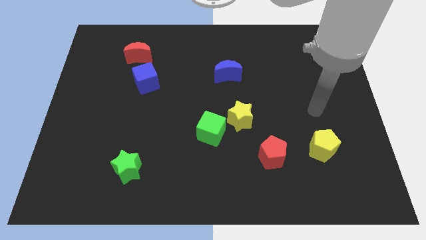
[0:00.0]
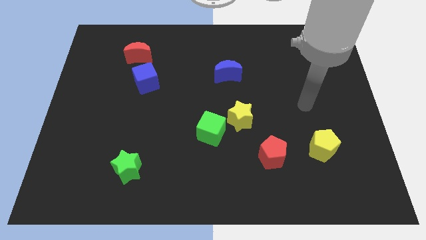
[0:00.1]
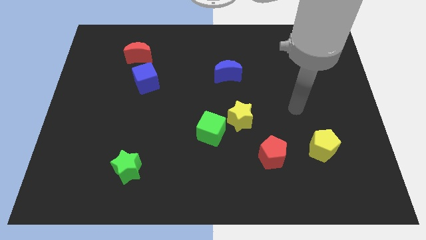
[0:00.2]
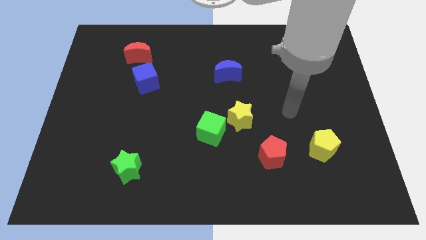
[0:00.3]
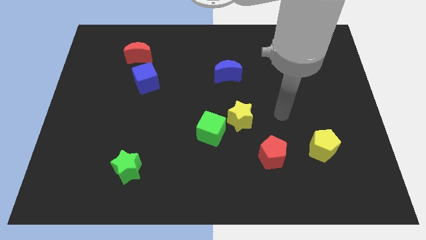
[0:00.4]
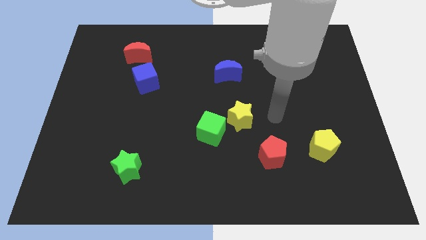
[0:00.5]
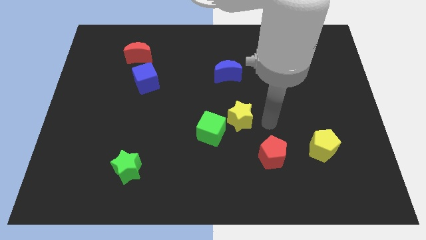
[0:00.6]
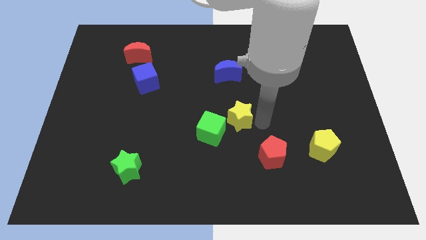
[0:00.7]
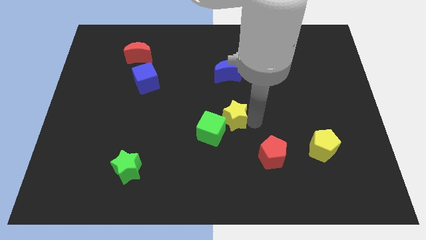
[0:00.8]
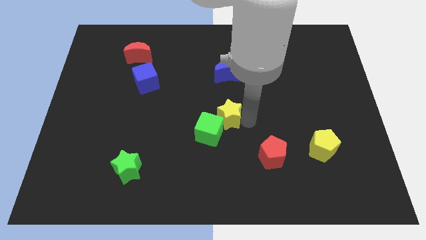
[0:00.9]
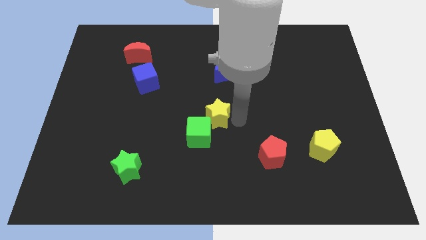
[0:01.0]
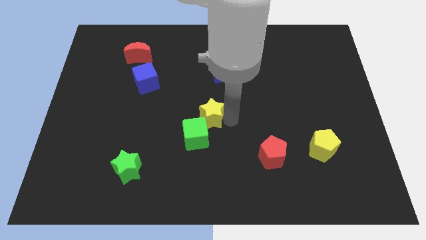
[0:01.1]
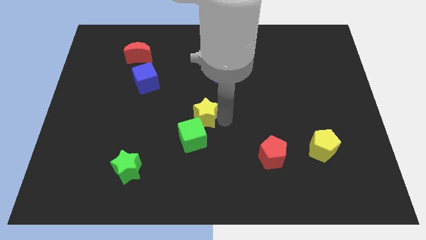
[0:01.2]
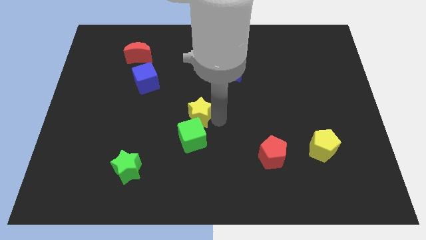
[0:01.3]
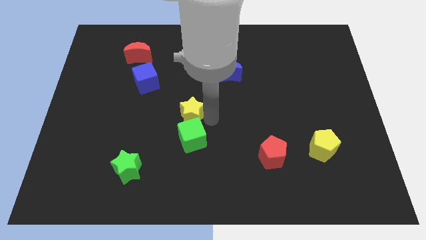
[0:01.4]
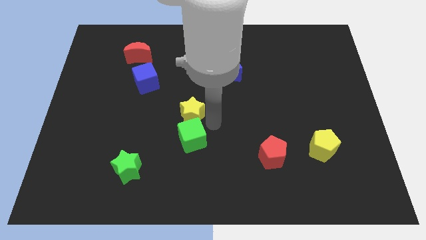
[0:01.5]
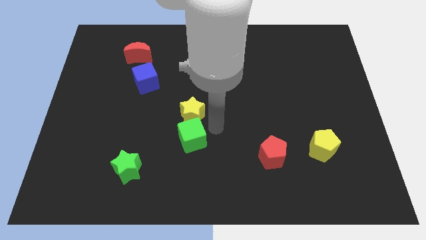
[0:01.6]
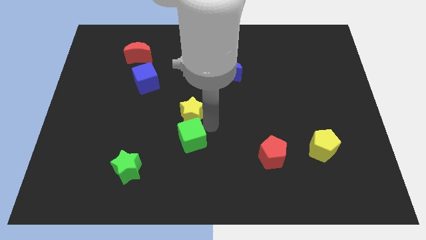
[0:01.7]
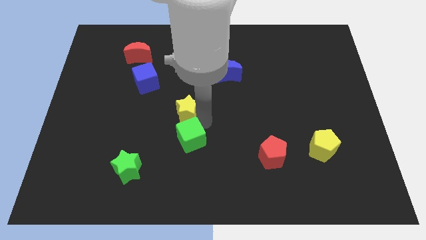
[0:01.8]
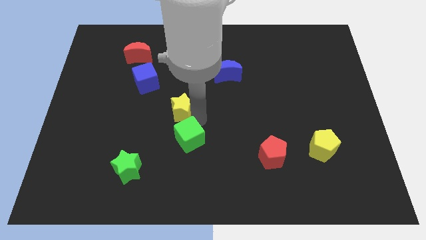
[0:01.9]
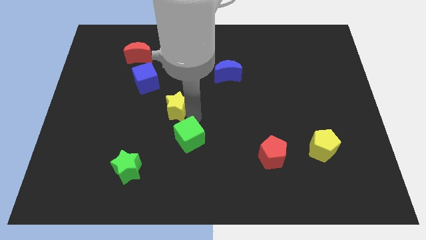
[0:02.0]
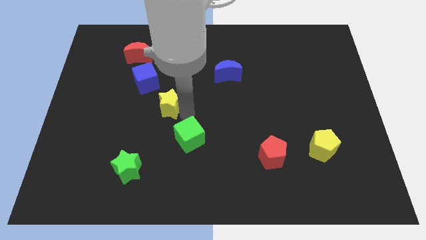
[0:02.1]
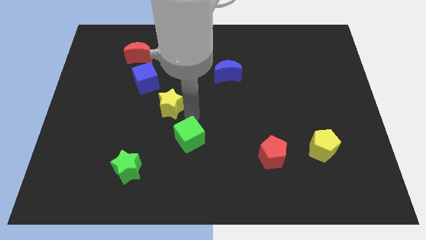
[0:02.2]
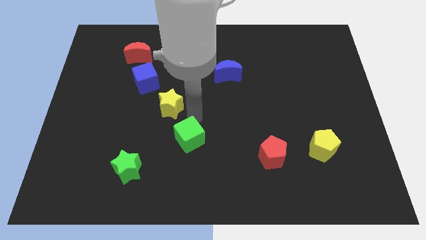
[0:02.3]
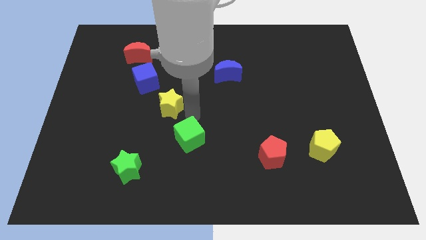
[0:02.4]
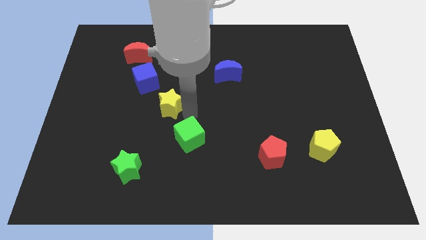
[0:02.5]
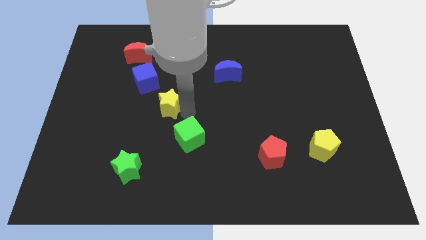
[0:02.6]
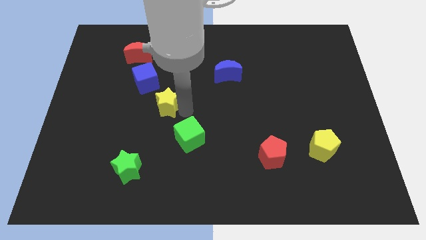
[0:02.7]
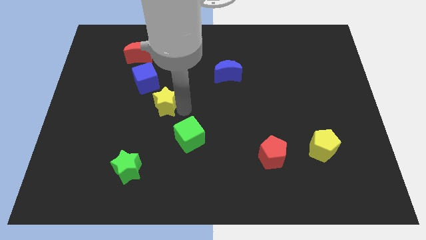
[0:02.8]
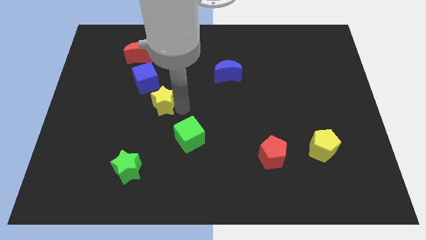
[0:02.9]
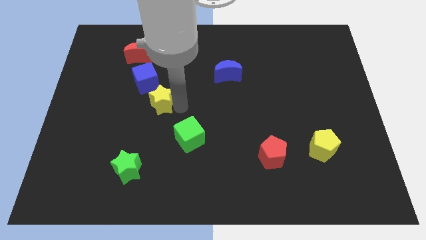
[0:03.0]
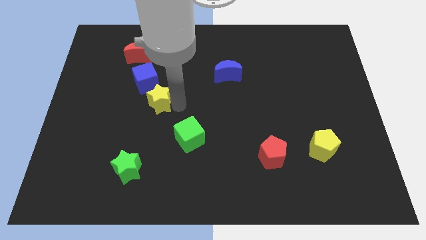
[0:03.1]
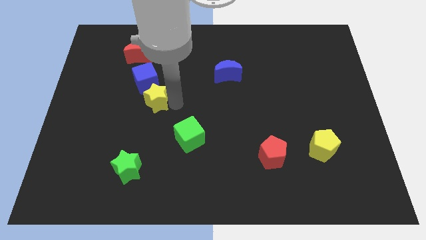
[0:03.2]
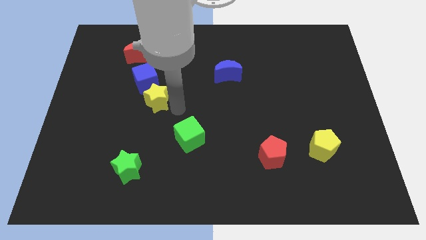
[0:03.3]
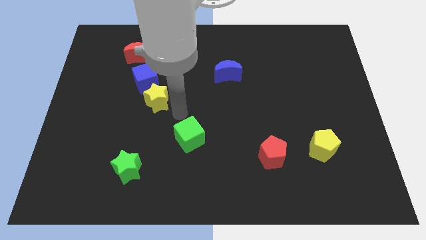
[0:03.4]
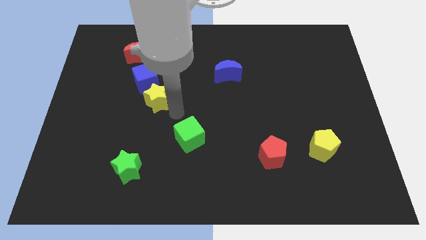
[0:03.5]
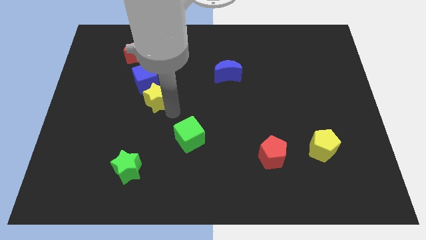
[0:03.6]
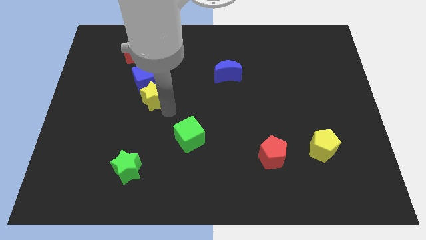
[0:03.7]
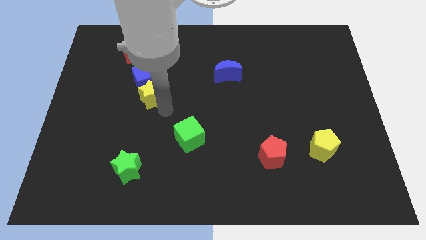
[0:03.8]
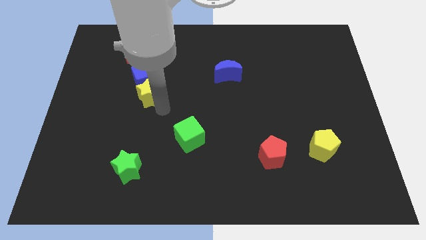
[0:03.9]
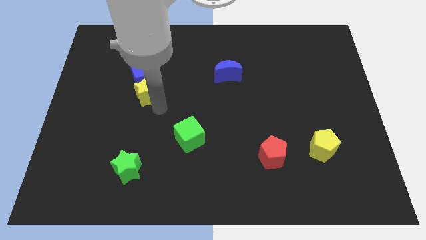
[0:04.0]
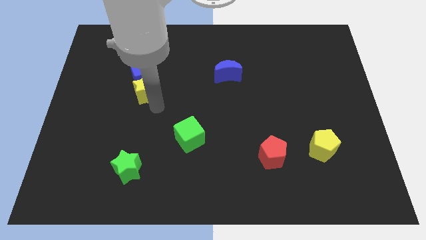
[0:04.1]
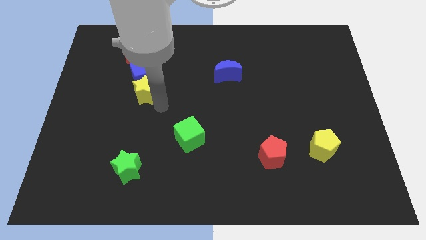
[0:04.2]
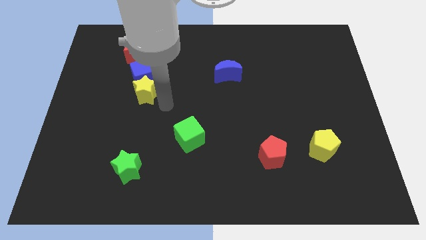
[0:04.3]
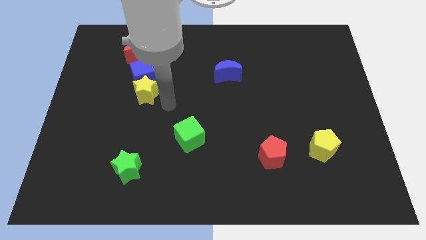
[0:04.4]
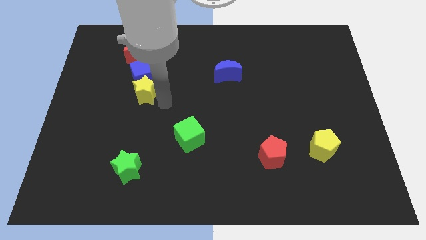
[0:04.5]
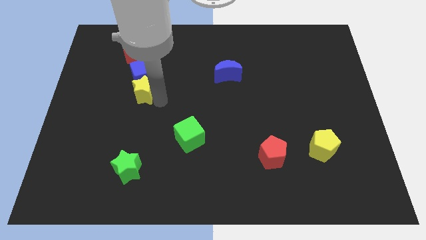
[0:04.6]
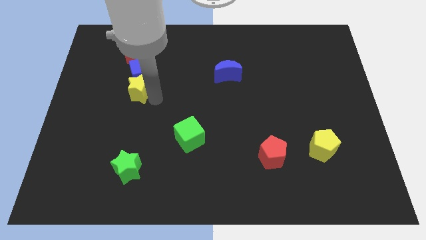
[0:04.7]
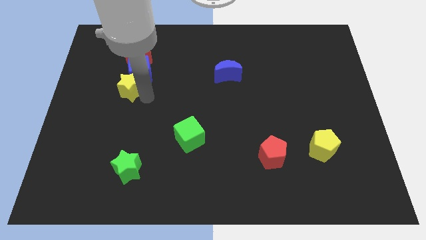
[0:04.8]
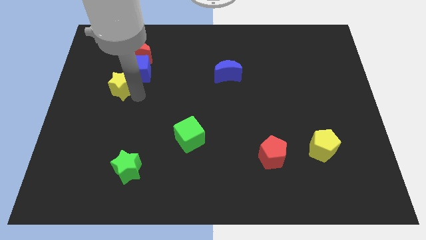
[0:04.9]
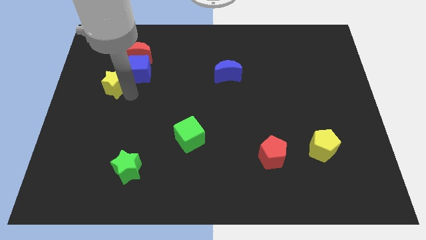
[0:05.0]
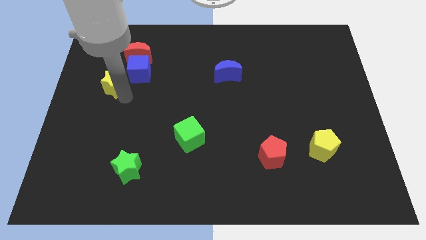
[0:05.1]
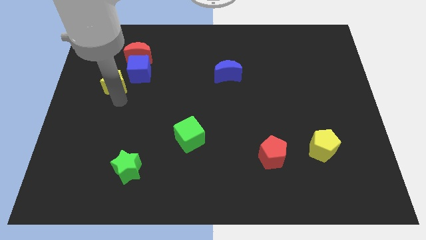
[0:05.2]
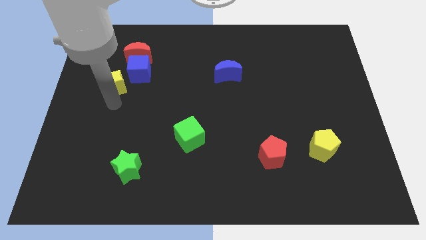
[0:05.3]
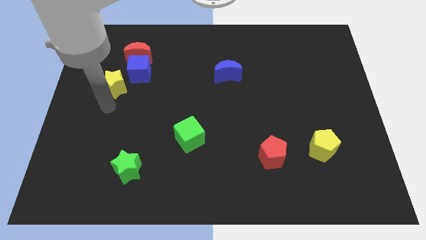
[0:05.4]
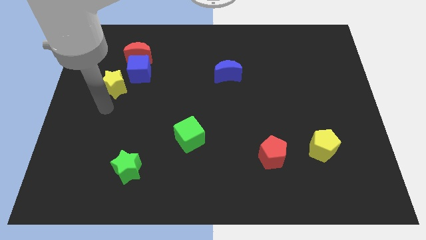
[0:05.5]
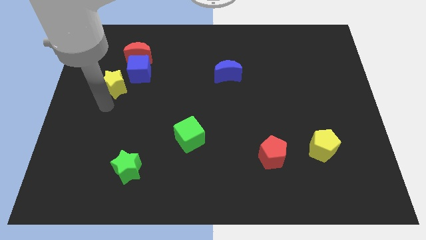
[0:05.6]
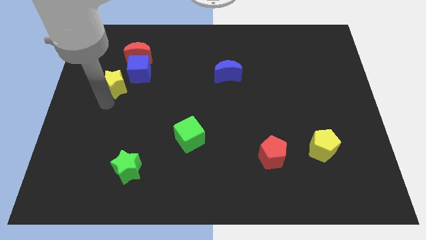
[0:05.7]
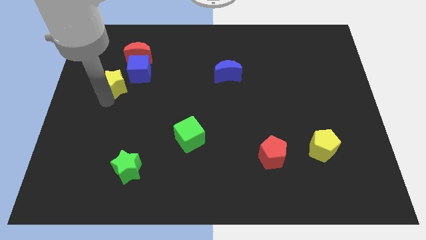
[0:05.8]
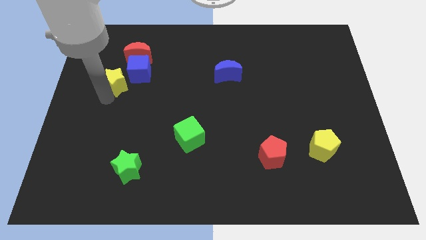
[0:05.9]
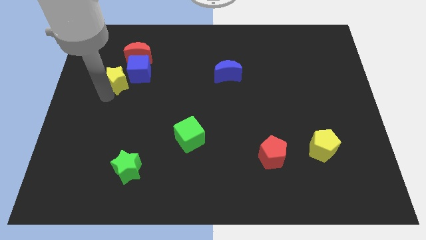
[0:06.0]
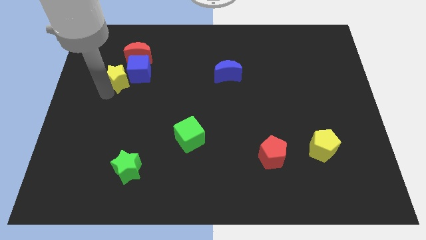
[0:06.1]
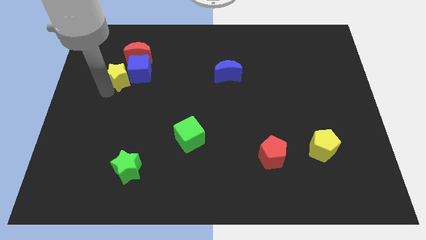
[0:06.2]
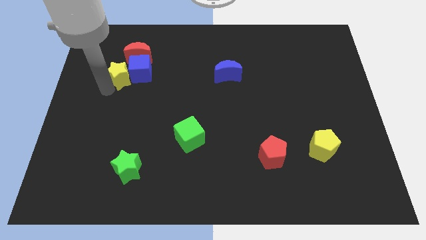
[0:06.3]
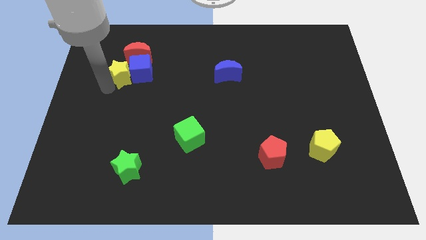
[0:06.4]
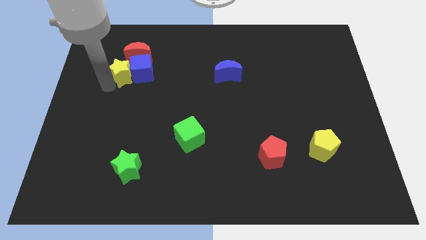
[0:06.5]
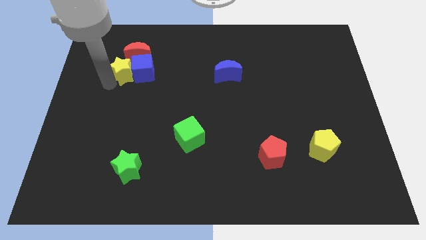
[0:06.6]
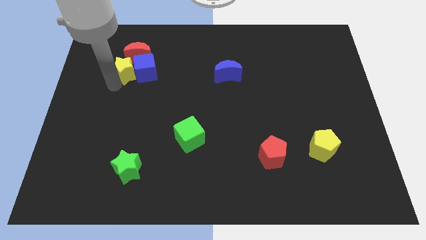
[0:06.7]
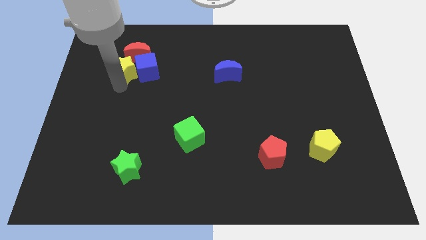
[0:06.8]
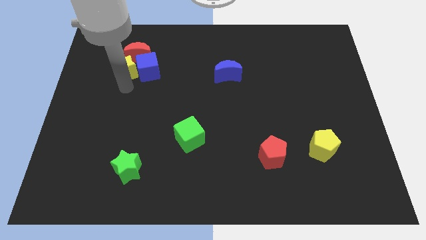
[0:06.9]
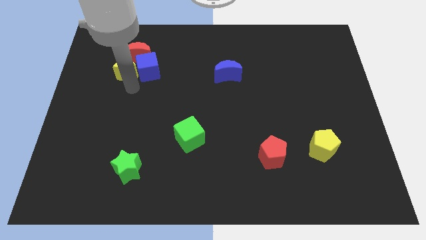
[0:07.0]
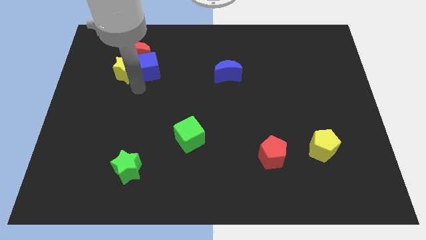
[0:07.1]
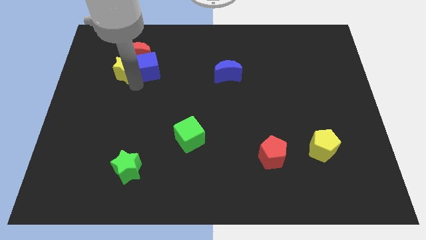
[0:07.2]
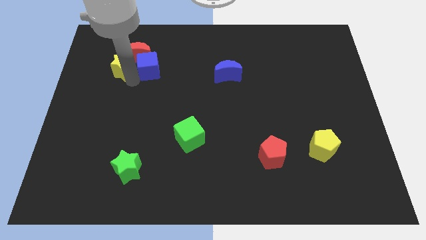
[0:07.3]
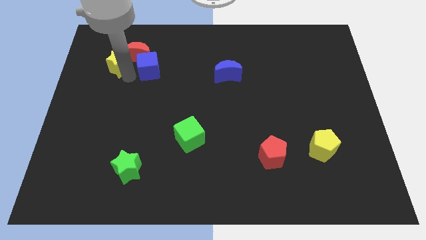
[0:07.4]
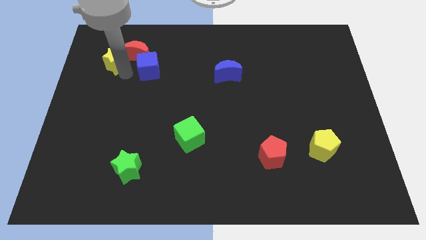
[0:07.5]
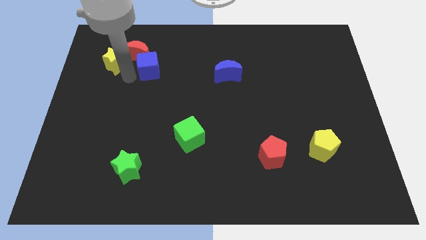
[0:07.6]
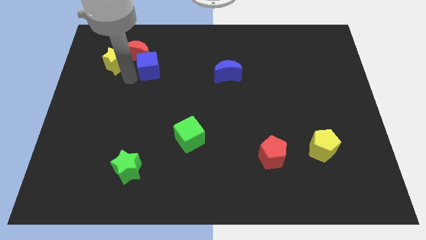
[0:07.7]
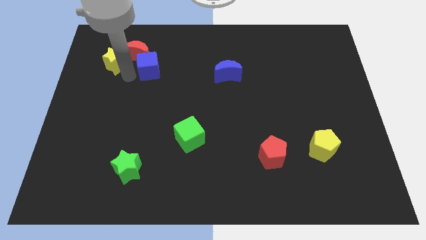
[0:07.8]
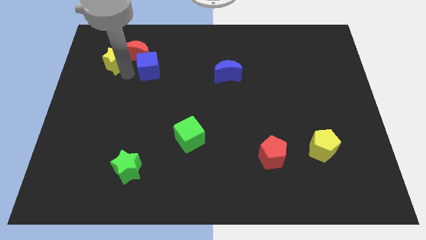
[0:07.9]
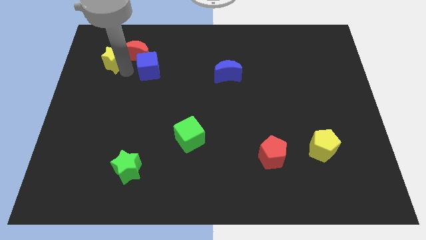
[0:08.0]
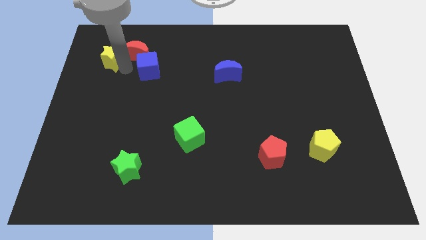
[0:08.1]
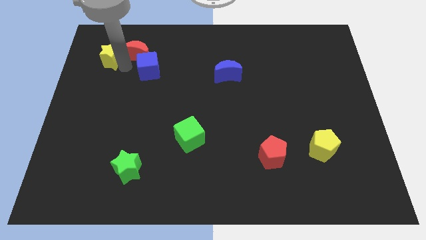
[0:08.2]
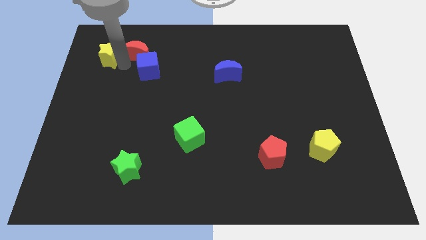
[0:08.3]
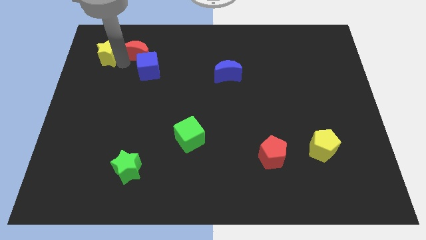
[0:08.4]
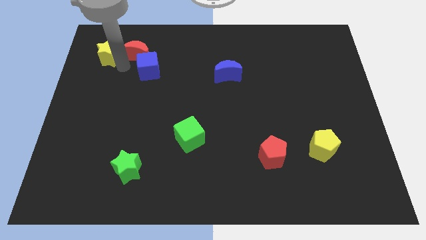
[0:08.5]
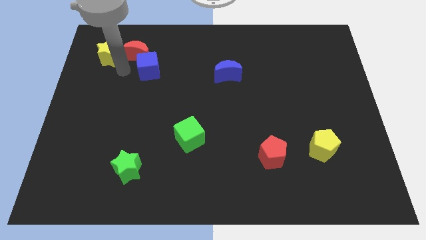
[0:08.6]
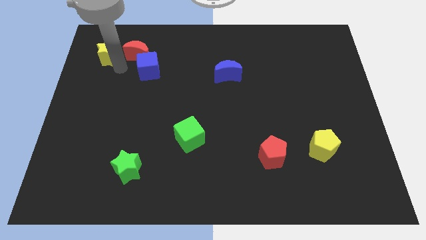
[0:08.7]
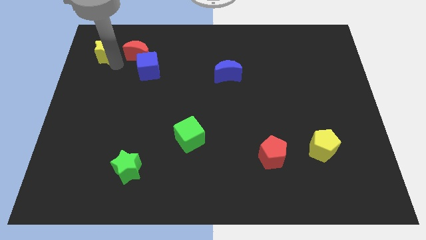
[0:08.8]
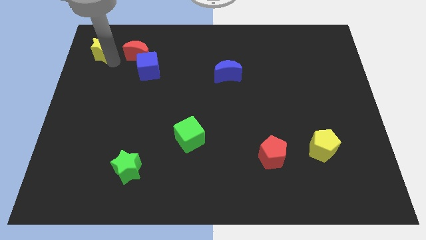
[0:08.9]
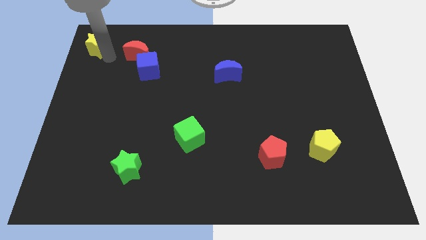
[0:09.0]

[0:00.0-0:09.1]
push the yellow star to the top left corner
